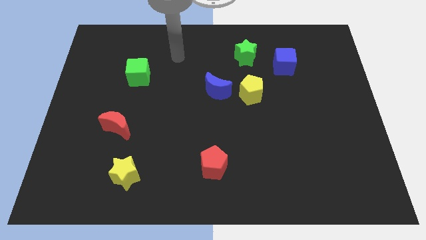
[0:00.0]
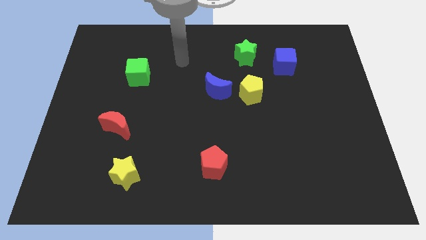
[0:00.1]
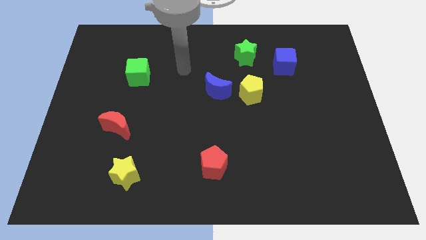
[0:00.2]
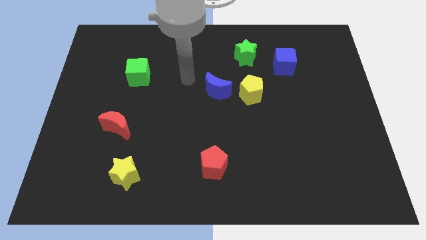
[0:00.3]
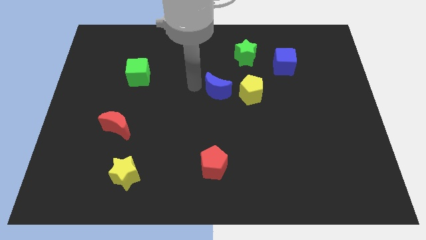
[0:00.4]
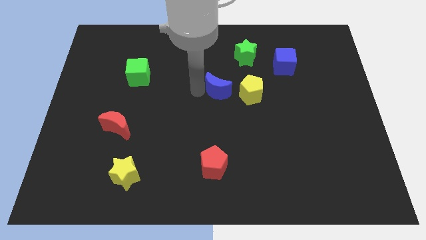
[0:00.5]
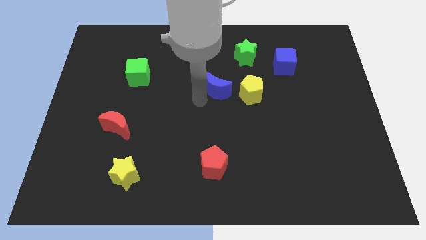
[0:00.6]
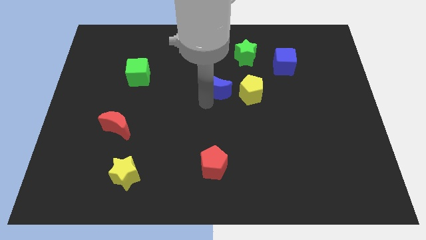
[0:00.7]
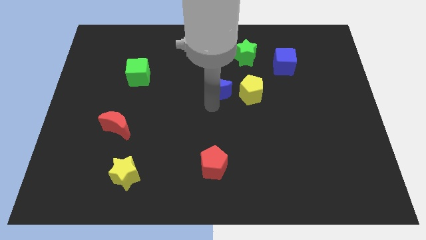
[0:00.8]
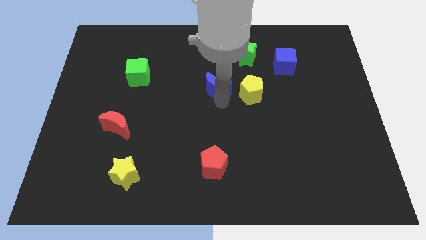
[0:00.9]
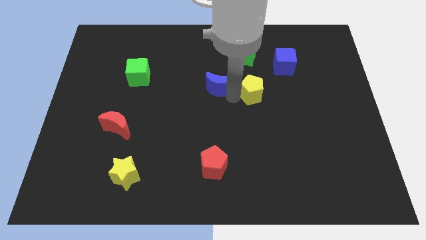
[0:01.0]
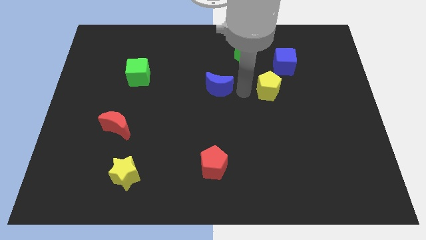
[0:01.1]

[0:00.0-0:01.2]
separate the blue moon from the yellow pentagon

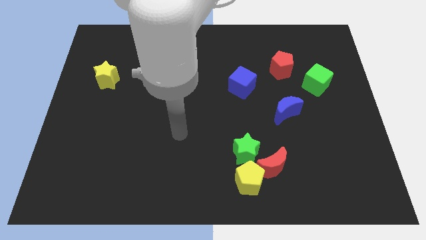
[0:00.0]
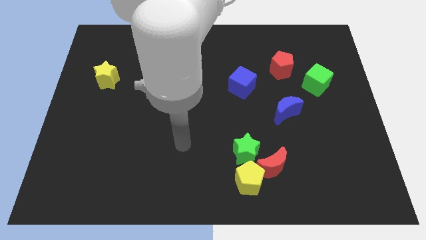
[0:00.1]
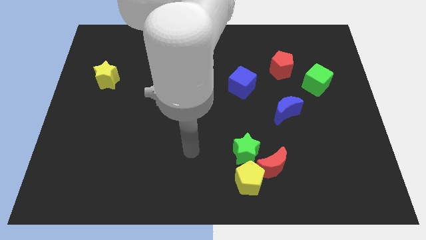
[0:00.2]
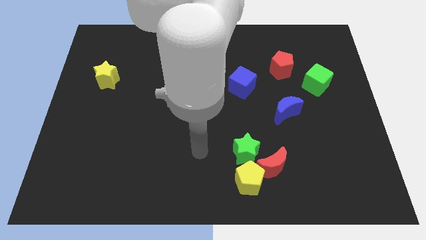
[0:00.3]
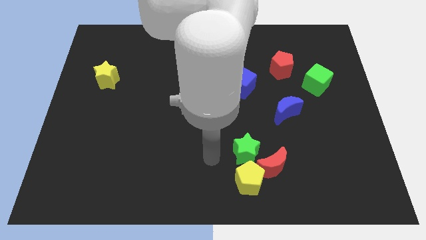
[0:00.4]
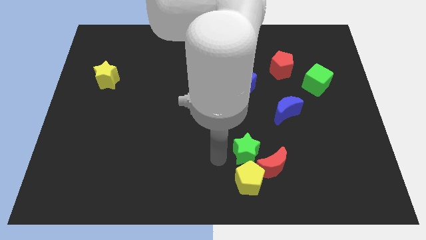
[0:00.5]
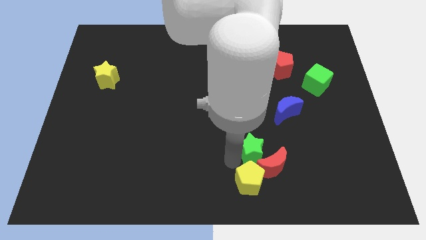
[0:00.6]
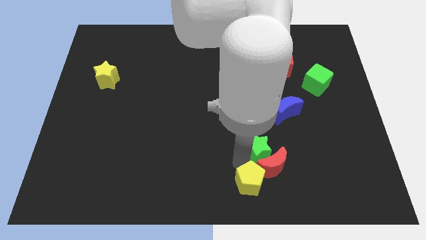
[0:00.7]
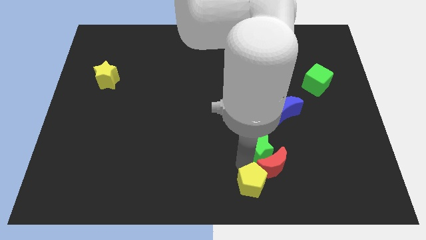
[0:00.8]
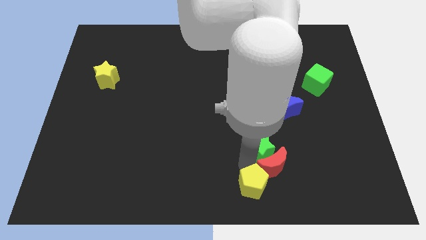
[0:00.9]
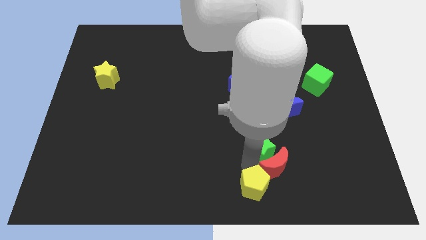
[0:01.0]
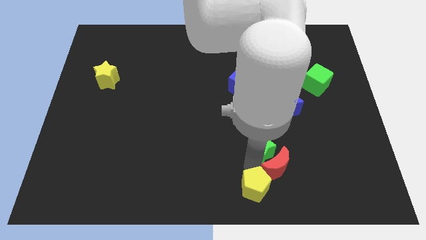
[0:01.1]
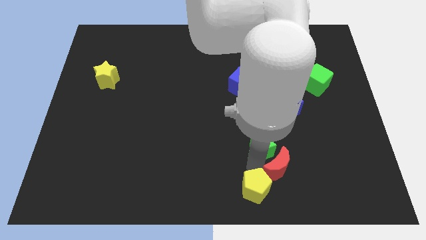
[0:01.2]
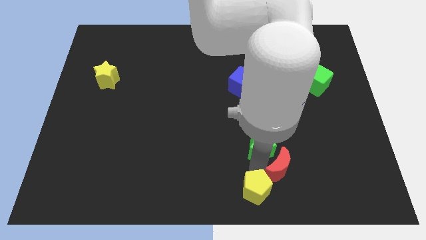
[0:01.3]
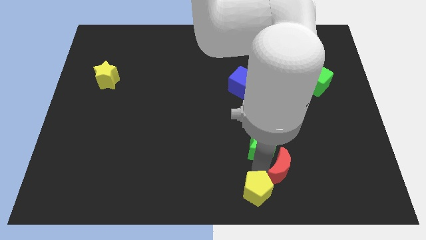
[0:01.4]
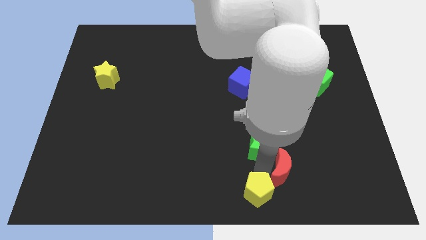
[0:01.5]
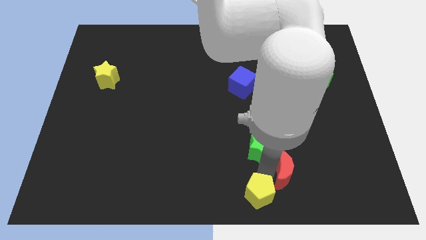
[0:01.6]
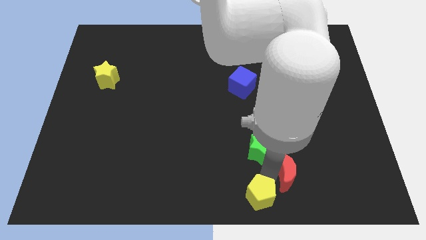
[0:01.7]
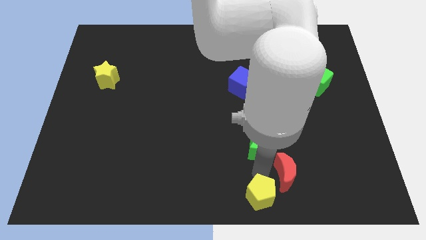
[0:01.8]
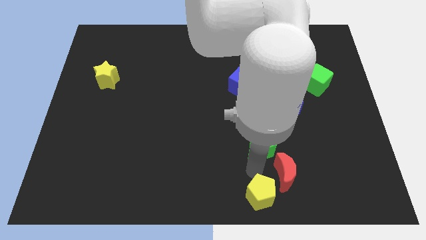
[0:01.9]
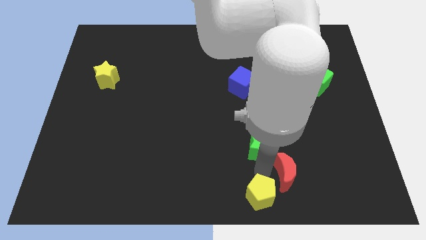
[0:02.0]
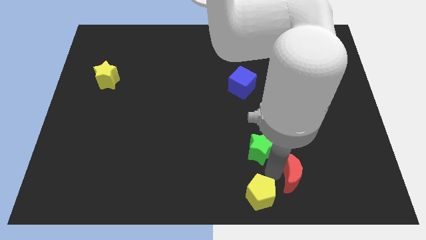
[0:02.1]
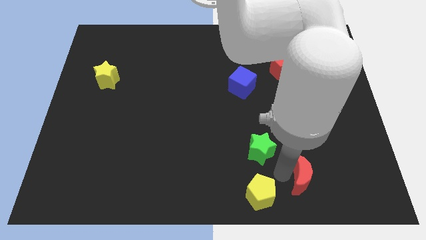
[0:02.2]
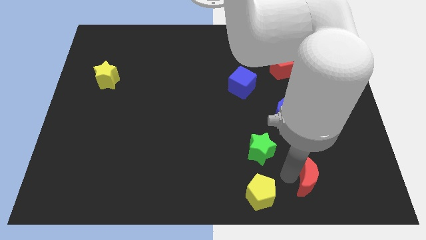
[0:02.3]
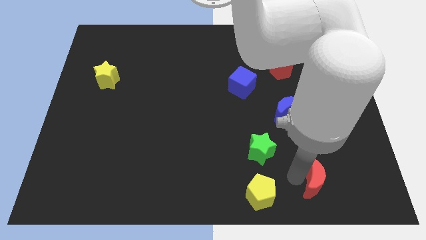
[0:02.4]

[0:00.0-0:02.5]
move the red moon away from the yellow pentagon and green star

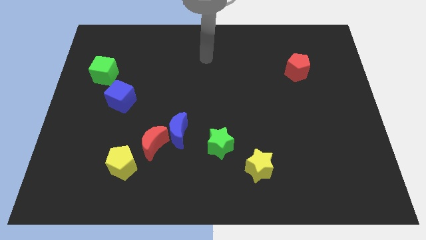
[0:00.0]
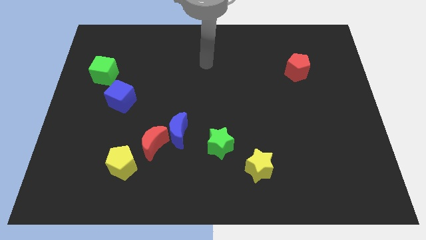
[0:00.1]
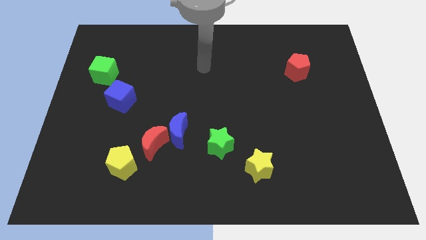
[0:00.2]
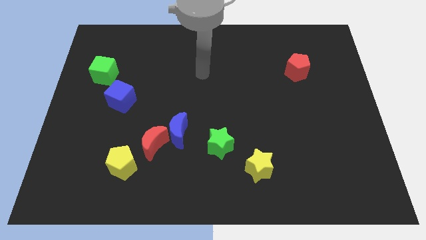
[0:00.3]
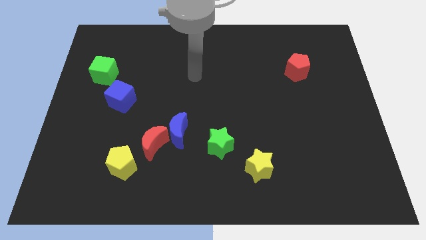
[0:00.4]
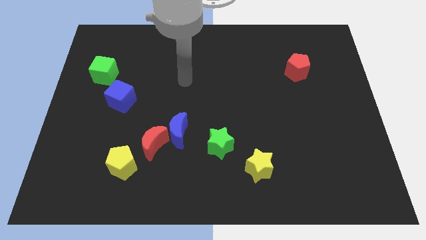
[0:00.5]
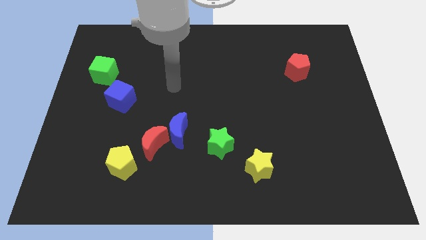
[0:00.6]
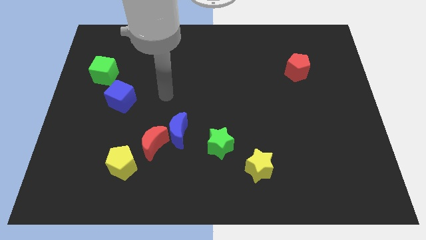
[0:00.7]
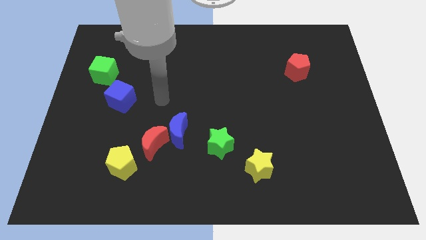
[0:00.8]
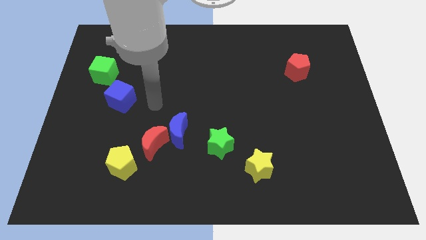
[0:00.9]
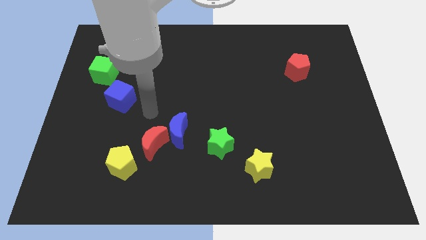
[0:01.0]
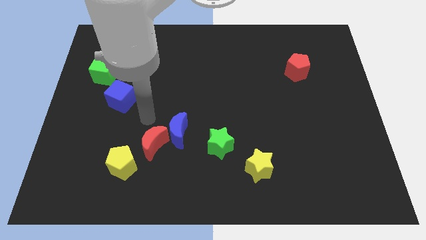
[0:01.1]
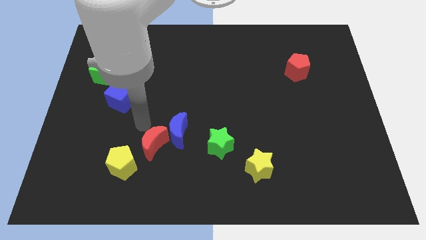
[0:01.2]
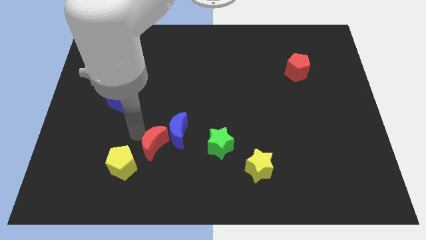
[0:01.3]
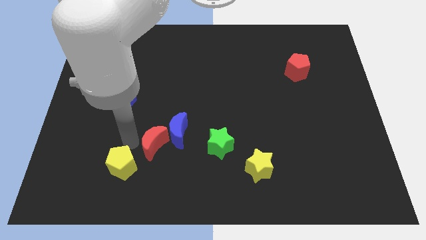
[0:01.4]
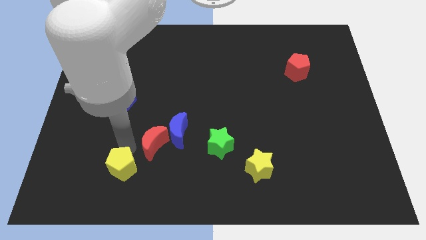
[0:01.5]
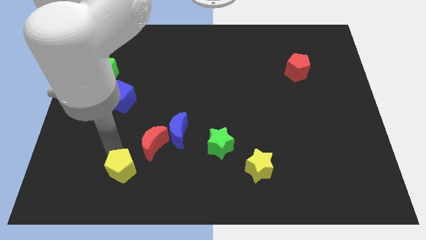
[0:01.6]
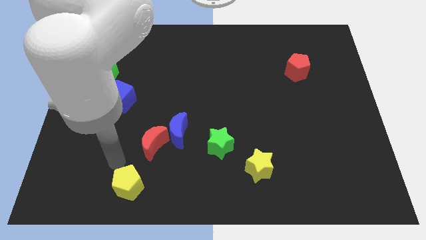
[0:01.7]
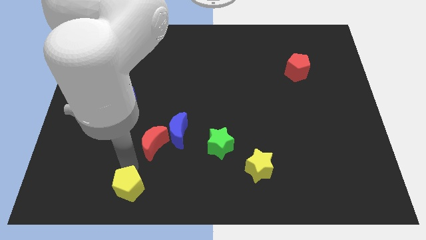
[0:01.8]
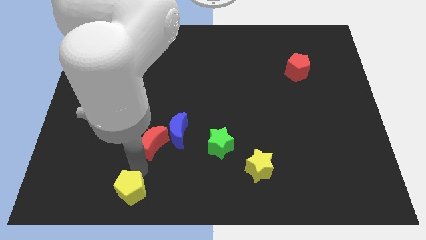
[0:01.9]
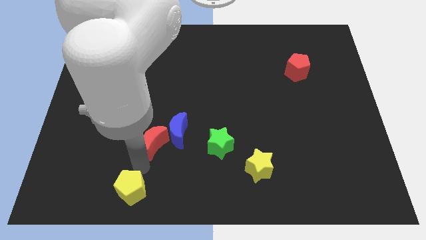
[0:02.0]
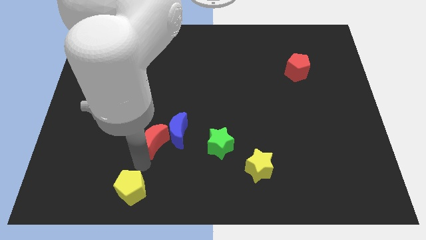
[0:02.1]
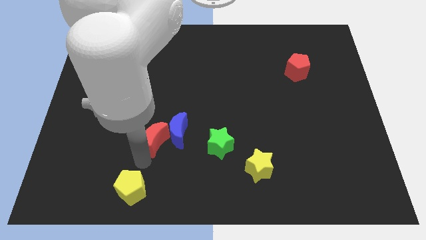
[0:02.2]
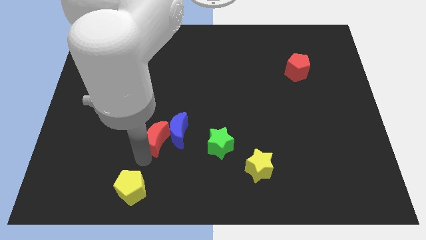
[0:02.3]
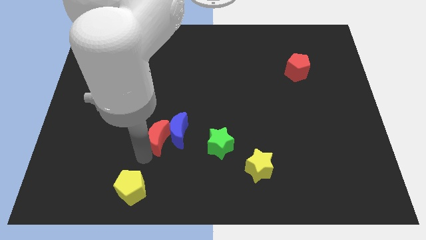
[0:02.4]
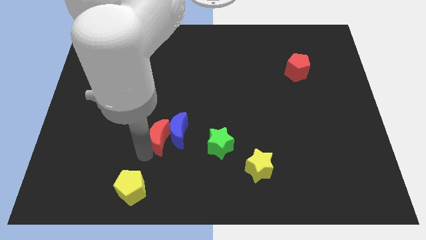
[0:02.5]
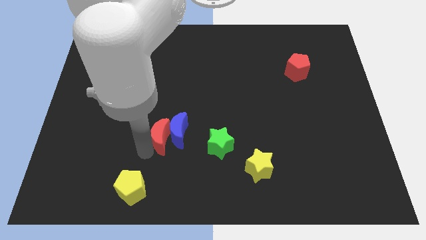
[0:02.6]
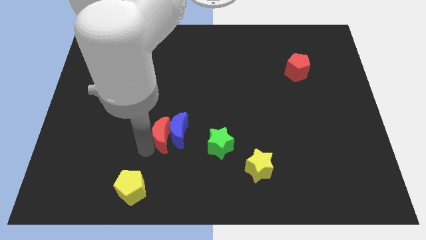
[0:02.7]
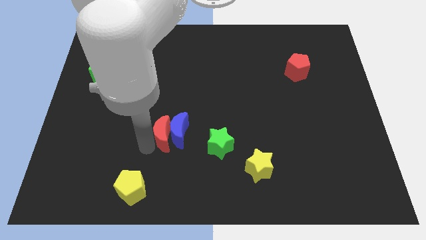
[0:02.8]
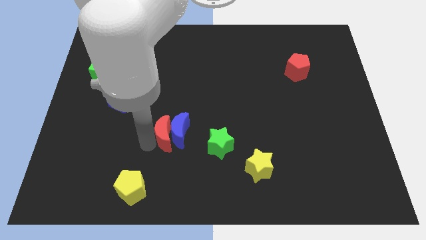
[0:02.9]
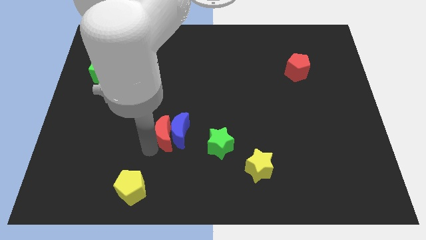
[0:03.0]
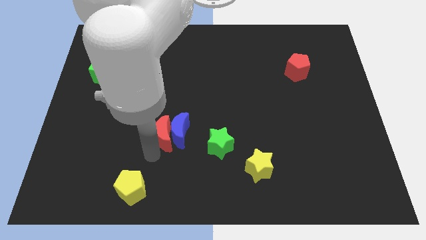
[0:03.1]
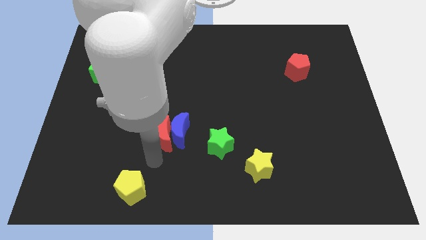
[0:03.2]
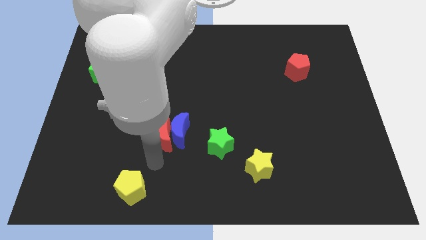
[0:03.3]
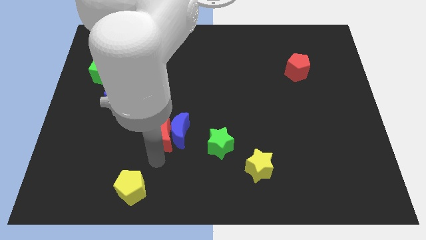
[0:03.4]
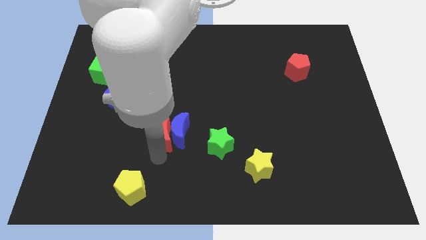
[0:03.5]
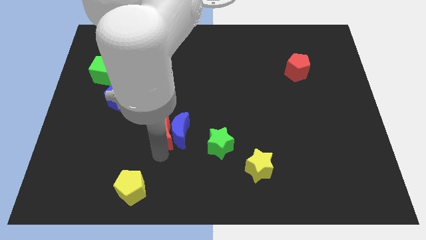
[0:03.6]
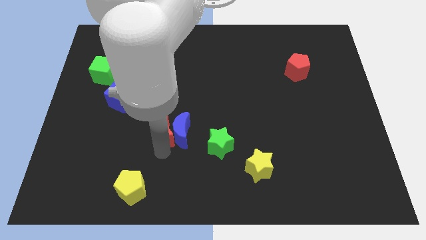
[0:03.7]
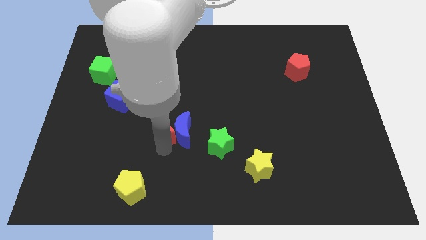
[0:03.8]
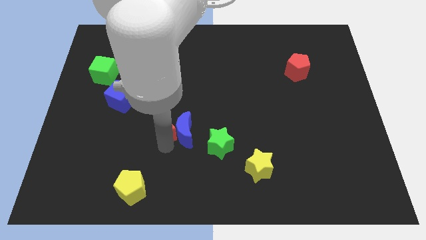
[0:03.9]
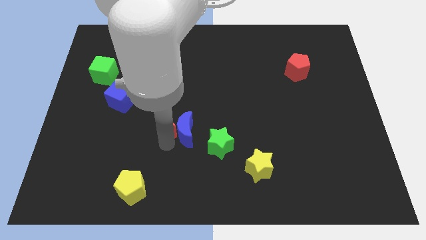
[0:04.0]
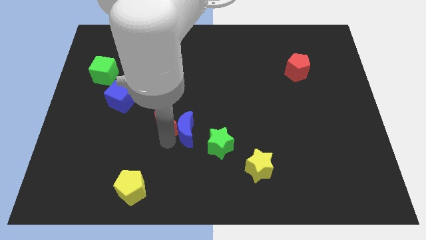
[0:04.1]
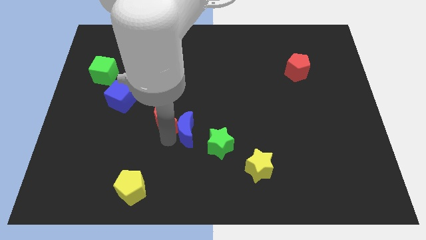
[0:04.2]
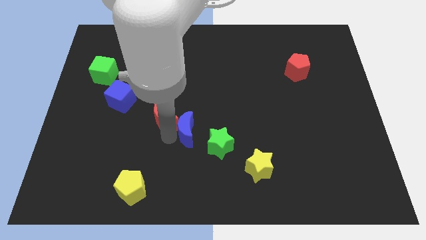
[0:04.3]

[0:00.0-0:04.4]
separate the red moon from the blue moon and yellow pentagon

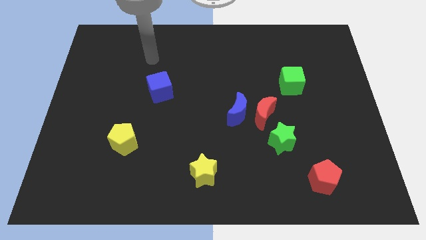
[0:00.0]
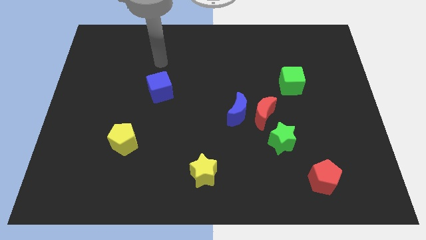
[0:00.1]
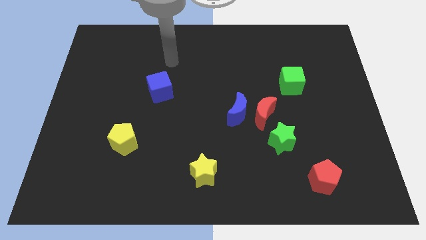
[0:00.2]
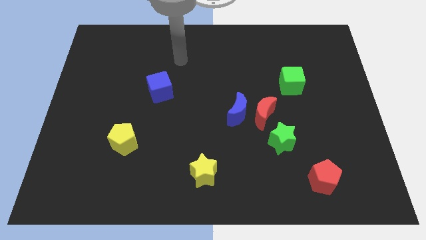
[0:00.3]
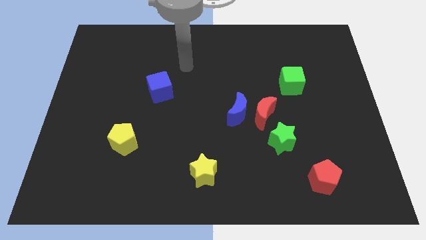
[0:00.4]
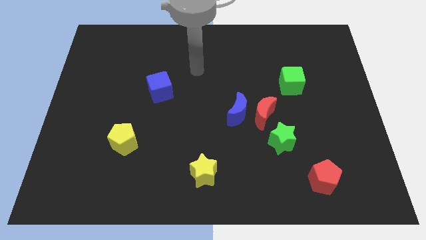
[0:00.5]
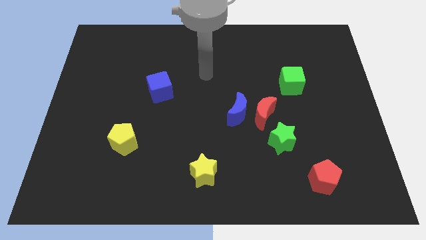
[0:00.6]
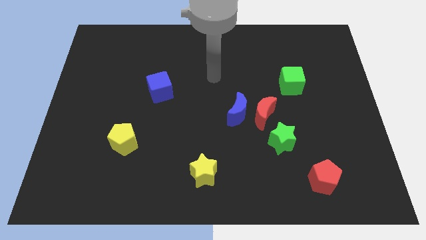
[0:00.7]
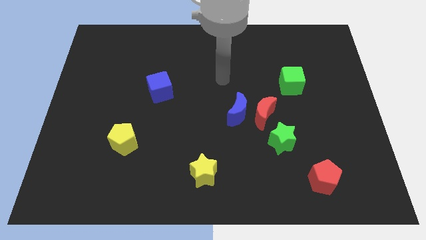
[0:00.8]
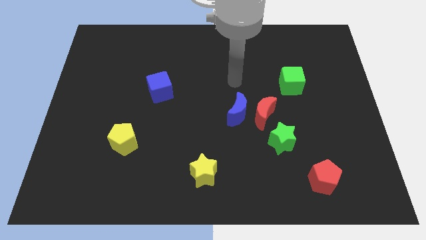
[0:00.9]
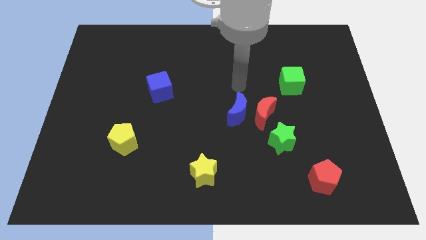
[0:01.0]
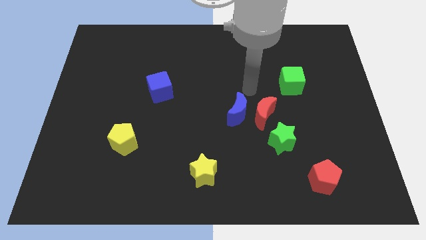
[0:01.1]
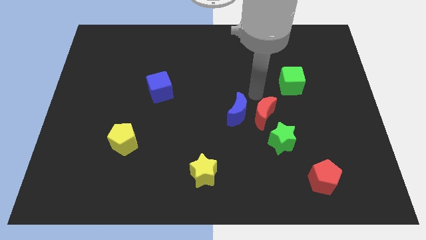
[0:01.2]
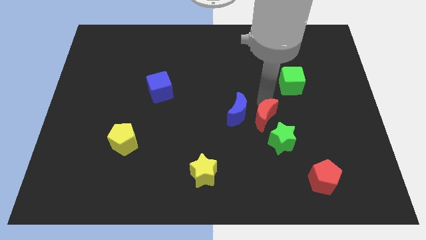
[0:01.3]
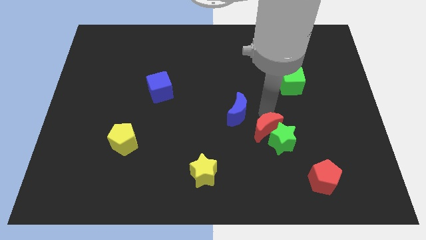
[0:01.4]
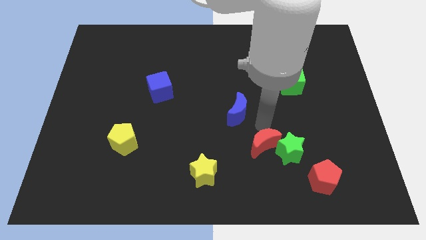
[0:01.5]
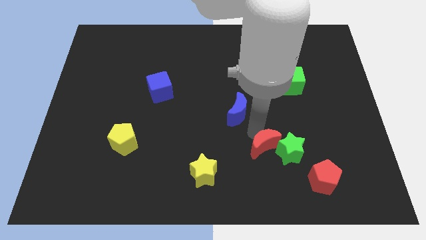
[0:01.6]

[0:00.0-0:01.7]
move the blue moon away from the red moon
